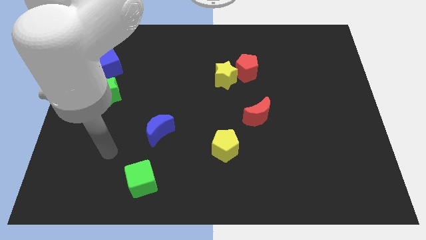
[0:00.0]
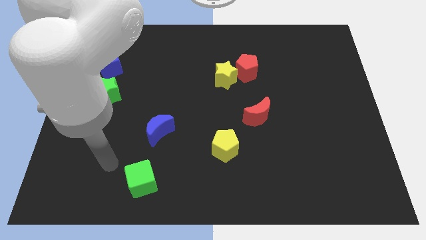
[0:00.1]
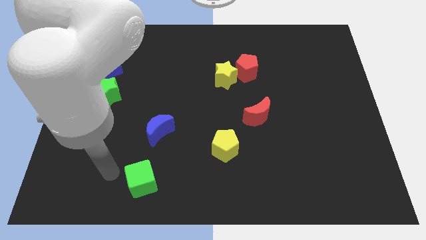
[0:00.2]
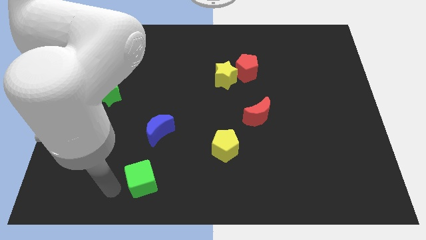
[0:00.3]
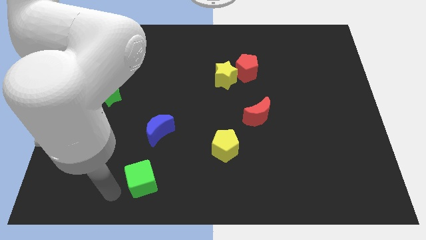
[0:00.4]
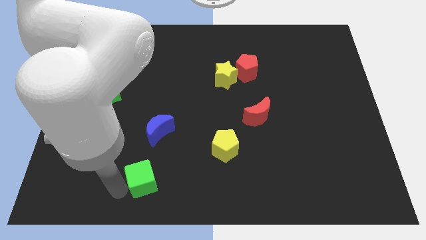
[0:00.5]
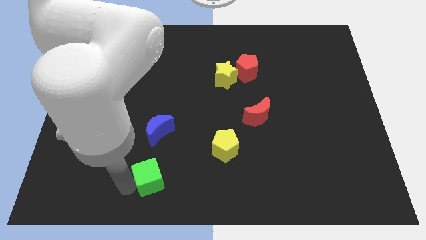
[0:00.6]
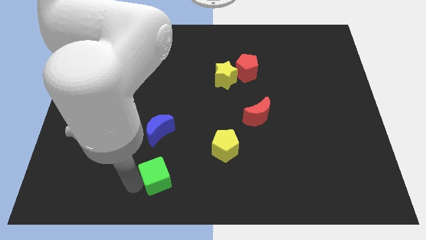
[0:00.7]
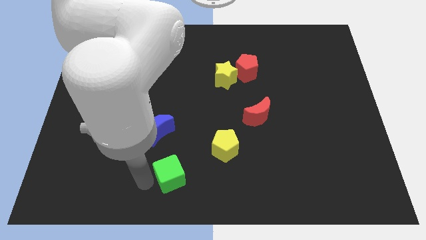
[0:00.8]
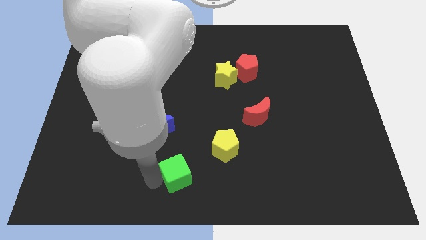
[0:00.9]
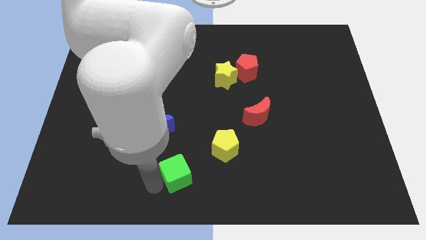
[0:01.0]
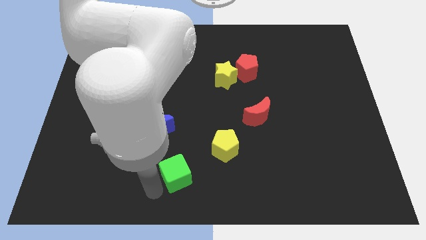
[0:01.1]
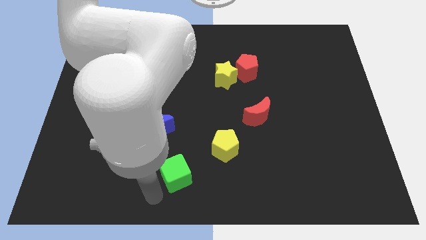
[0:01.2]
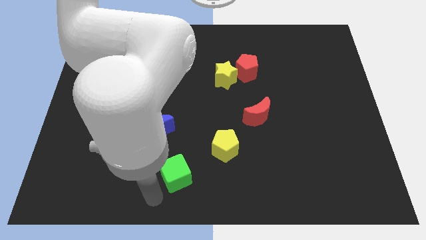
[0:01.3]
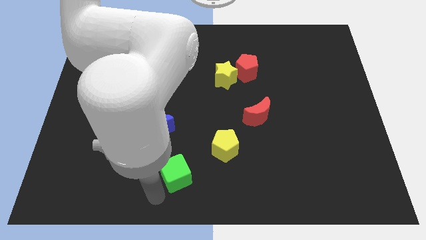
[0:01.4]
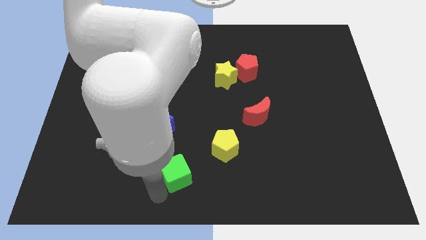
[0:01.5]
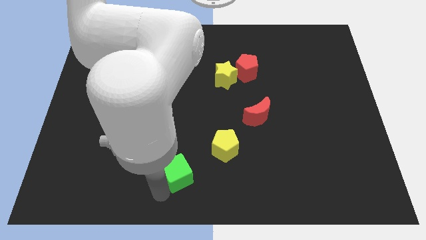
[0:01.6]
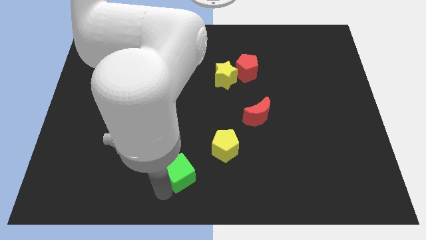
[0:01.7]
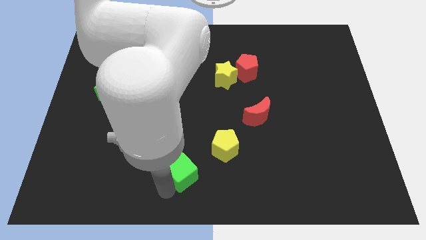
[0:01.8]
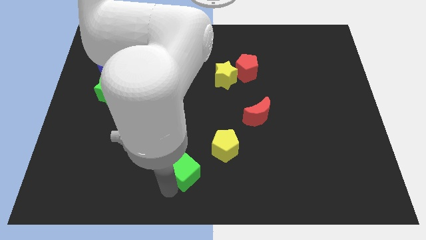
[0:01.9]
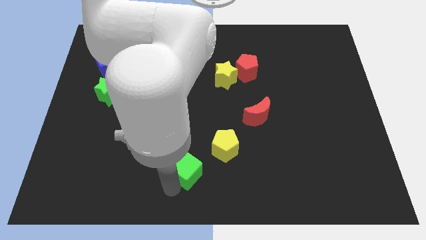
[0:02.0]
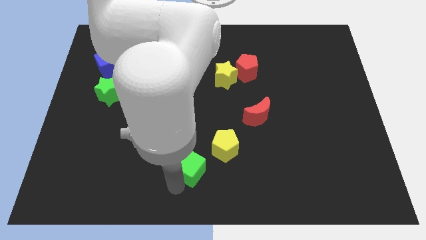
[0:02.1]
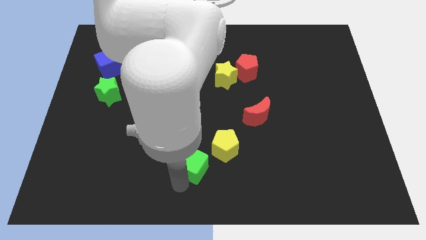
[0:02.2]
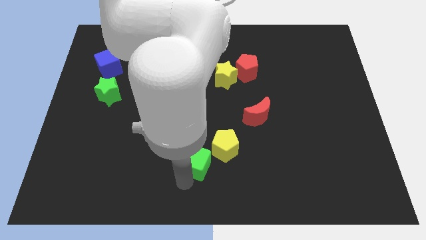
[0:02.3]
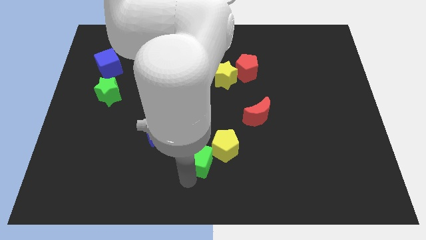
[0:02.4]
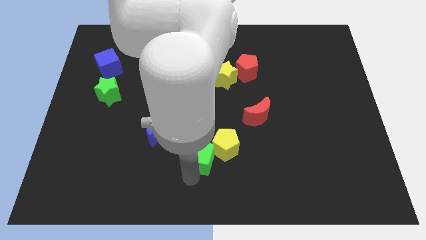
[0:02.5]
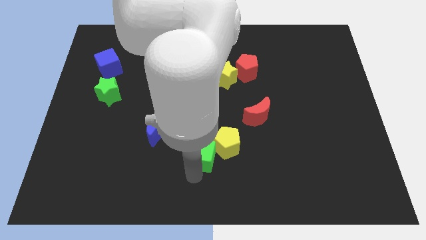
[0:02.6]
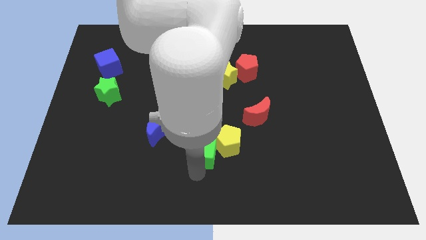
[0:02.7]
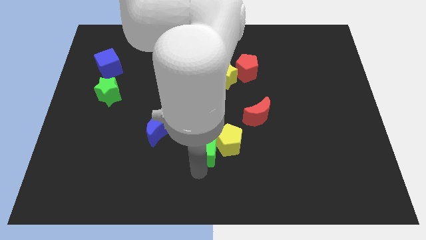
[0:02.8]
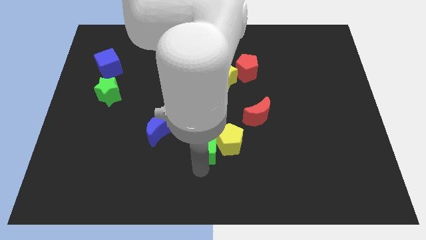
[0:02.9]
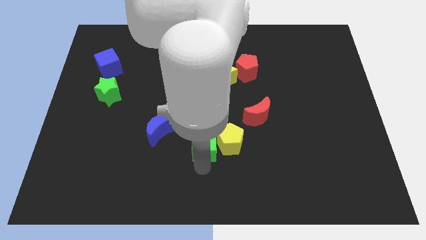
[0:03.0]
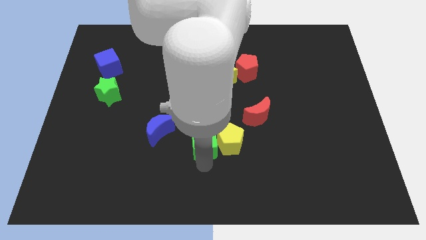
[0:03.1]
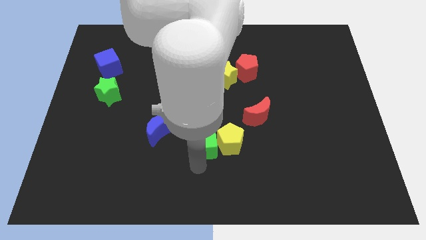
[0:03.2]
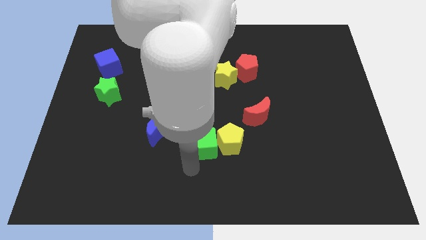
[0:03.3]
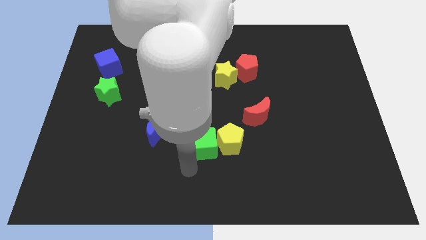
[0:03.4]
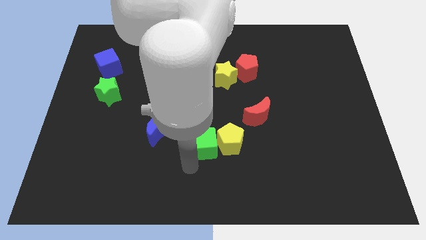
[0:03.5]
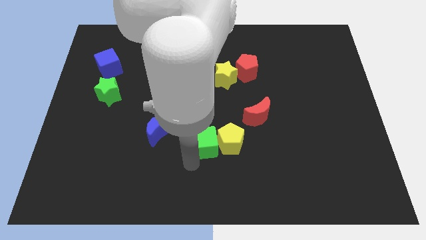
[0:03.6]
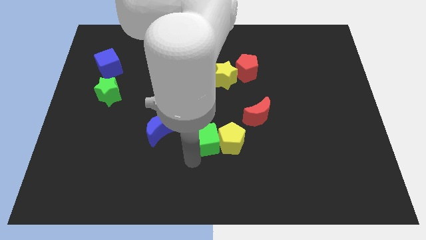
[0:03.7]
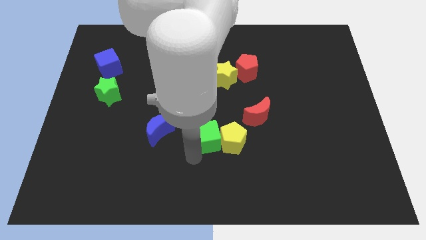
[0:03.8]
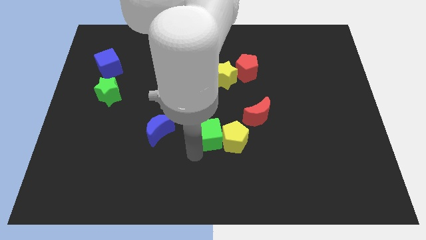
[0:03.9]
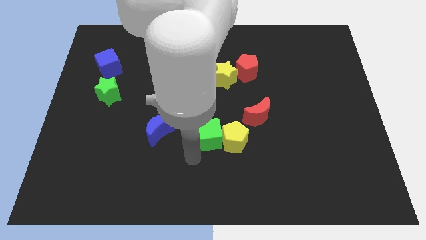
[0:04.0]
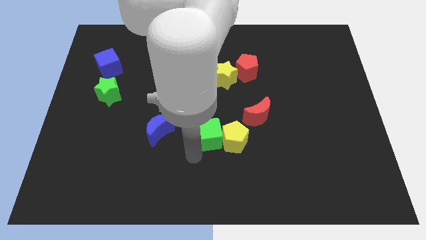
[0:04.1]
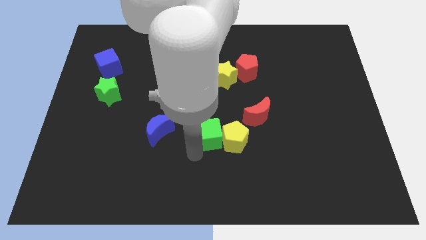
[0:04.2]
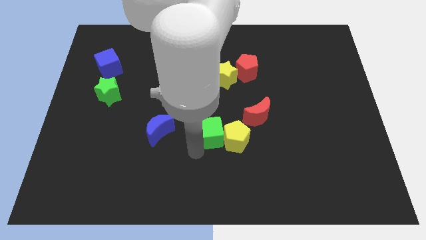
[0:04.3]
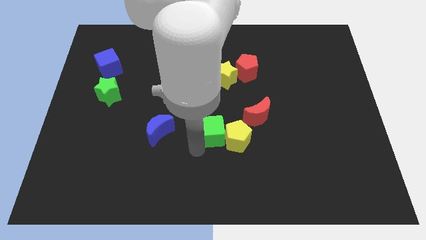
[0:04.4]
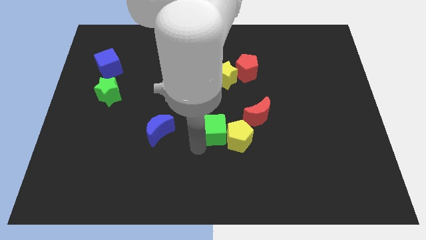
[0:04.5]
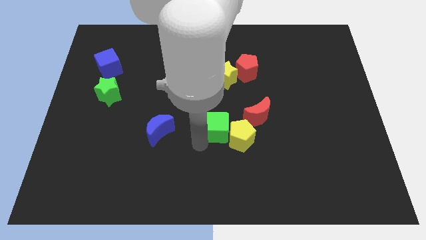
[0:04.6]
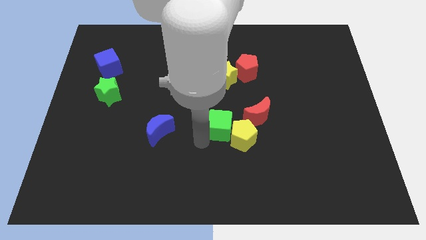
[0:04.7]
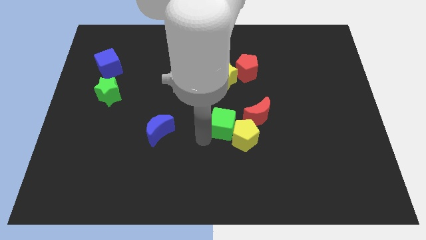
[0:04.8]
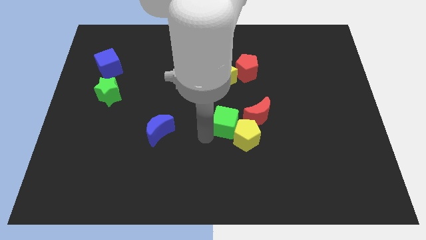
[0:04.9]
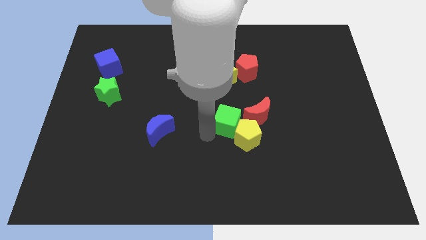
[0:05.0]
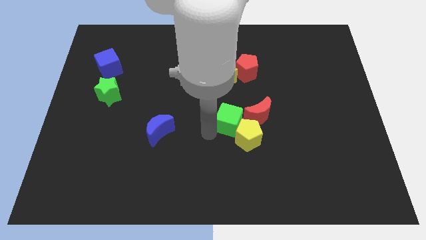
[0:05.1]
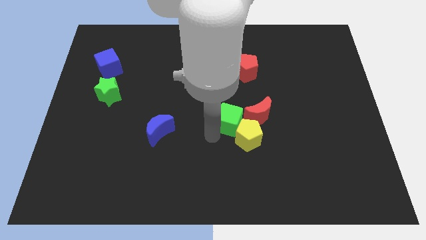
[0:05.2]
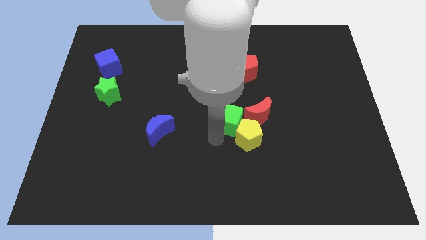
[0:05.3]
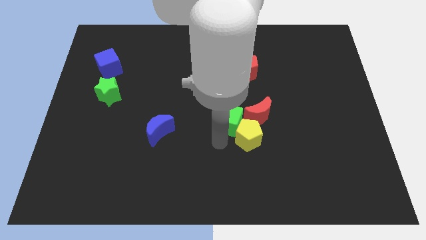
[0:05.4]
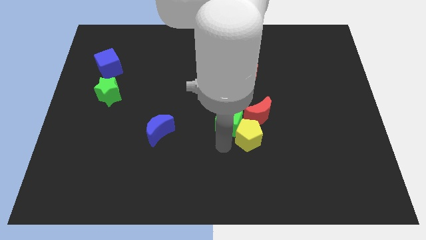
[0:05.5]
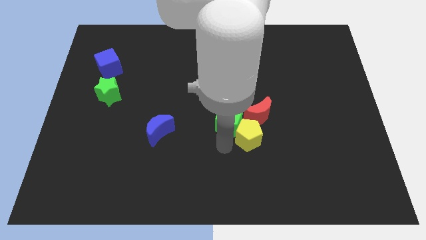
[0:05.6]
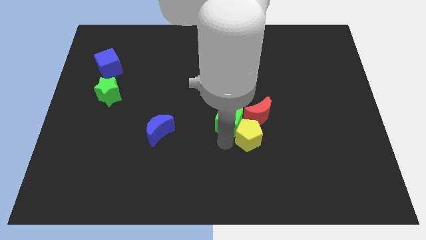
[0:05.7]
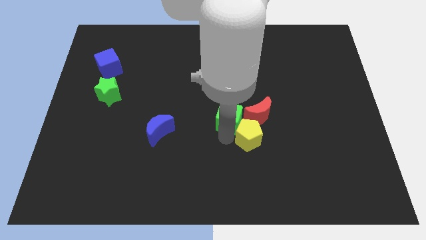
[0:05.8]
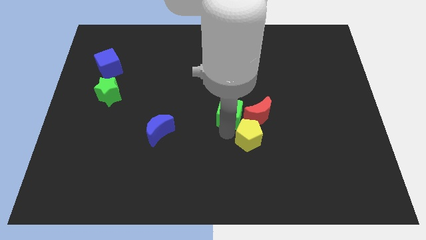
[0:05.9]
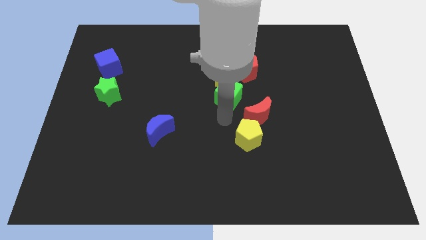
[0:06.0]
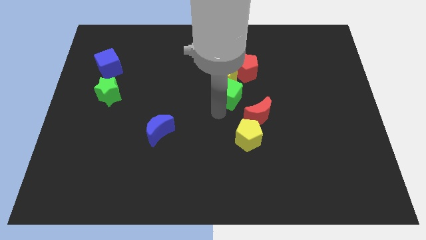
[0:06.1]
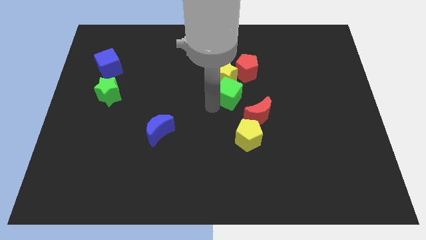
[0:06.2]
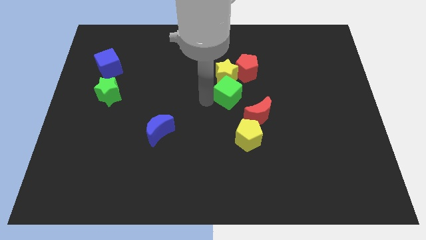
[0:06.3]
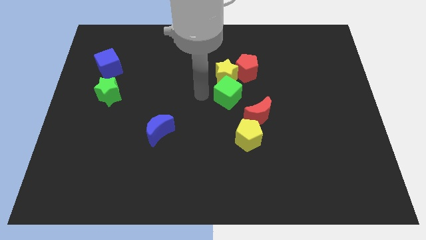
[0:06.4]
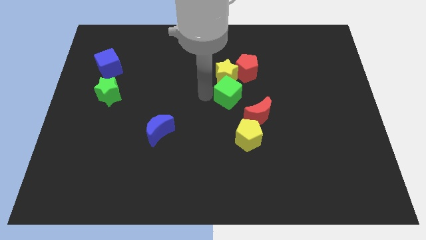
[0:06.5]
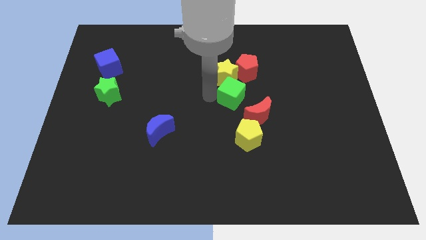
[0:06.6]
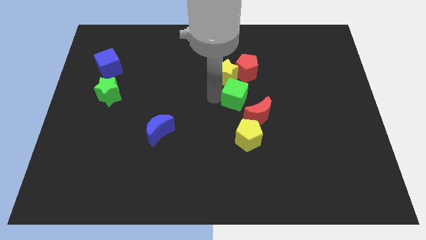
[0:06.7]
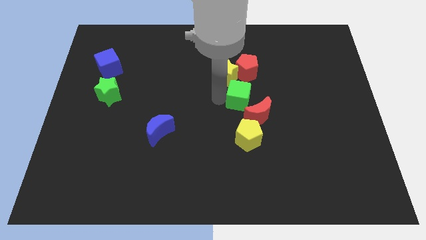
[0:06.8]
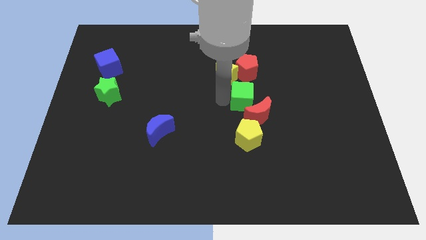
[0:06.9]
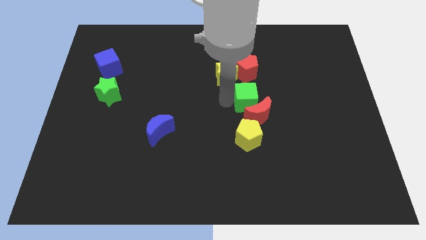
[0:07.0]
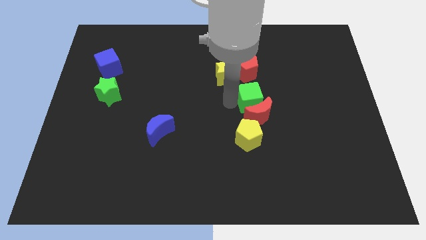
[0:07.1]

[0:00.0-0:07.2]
slide the green cube to the top right side of the red moon

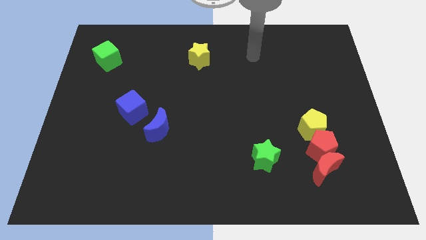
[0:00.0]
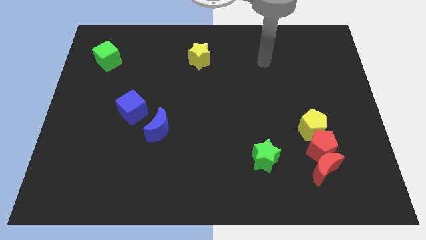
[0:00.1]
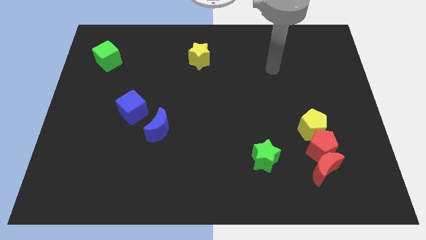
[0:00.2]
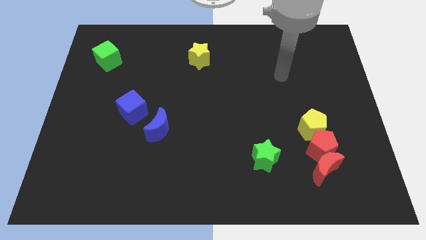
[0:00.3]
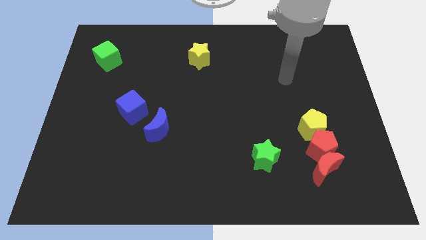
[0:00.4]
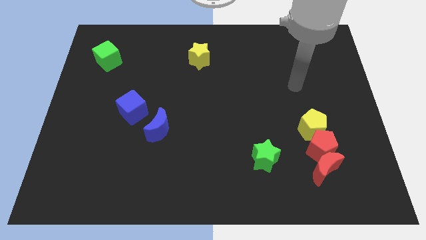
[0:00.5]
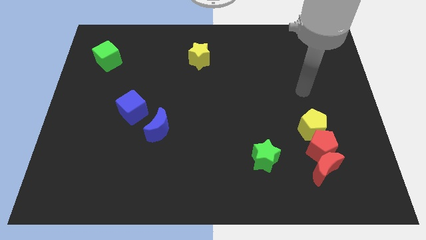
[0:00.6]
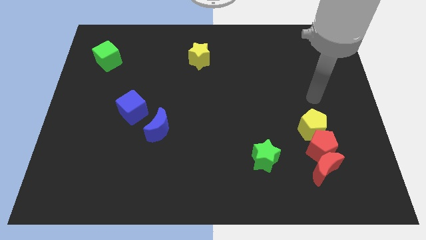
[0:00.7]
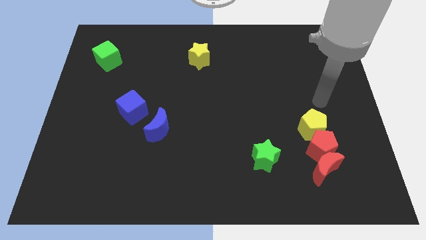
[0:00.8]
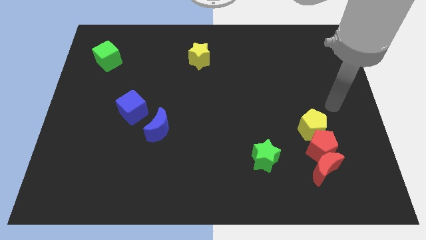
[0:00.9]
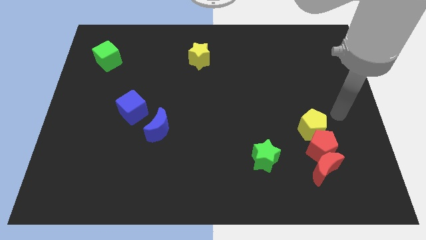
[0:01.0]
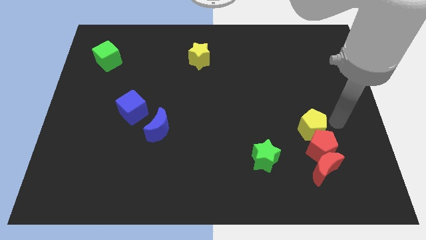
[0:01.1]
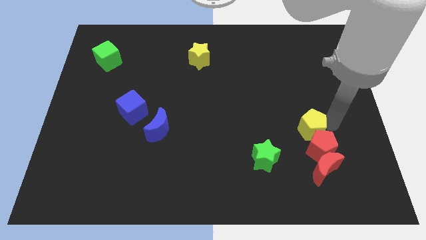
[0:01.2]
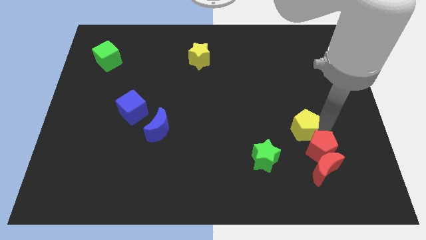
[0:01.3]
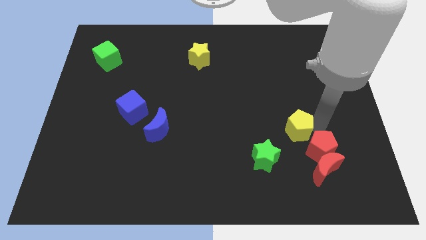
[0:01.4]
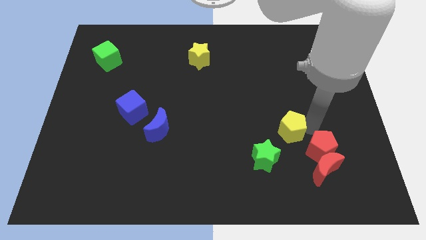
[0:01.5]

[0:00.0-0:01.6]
slide the yellow pentagon just left of the red pentagon
